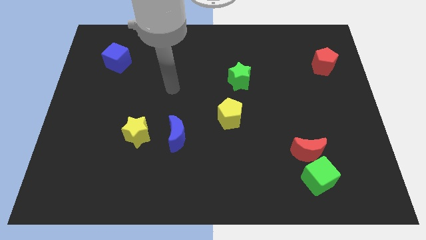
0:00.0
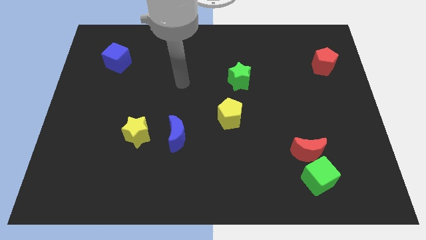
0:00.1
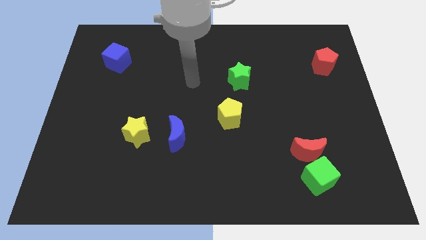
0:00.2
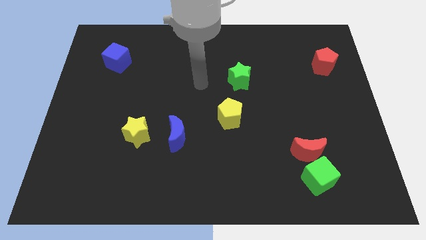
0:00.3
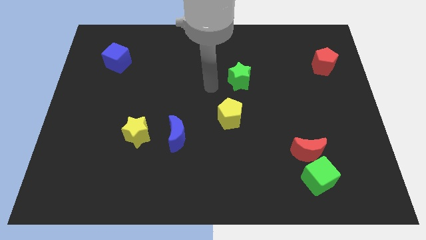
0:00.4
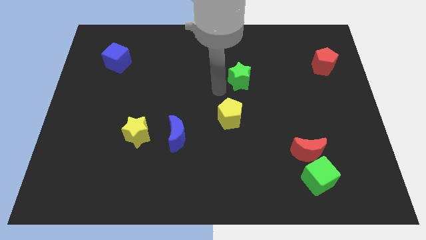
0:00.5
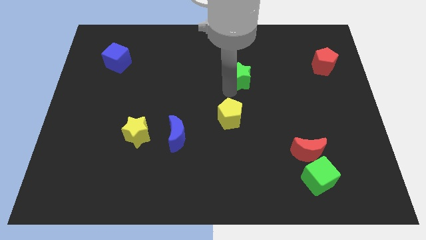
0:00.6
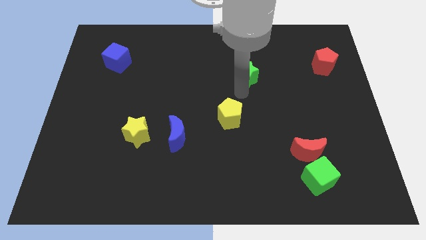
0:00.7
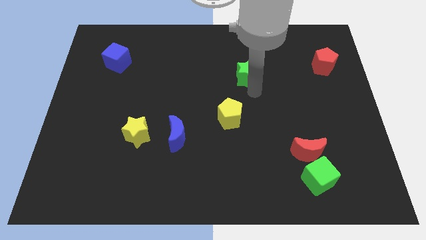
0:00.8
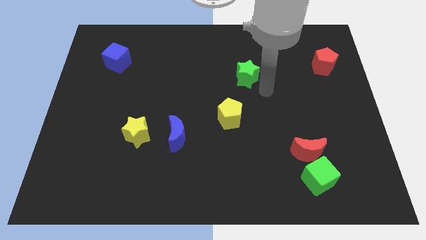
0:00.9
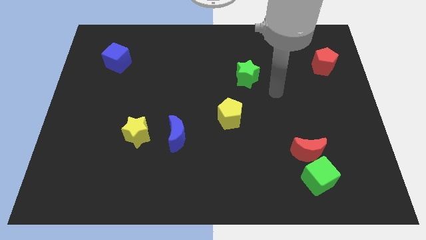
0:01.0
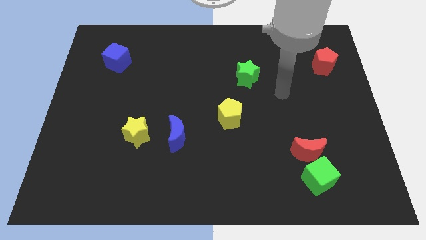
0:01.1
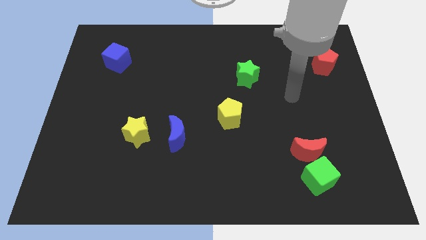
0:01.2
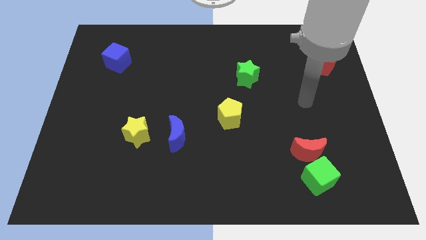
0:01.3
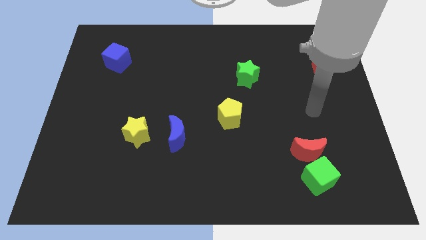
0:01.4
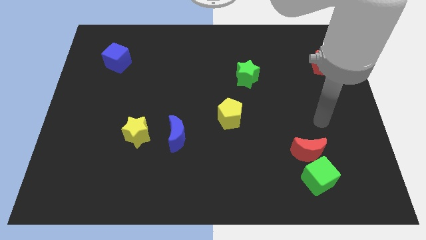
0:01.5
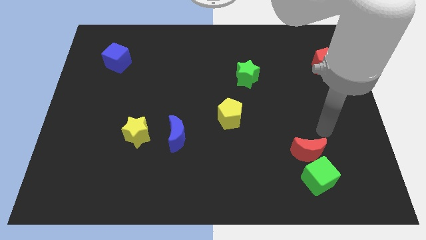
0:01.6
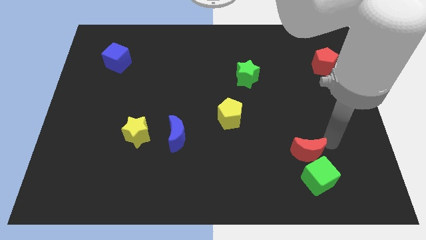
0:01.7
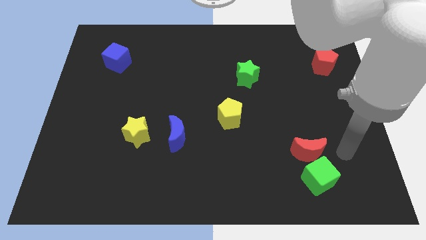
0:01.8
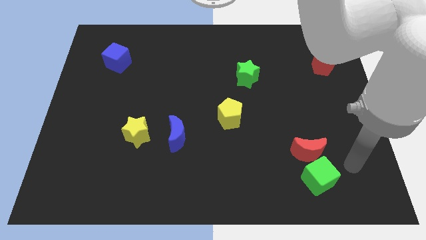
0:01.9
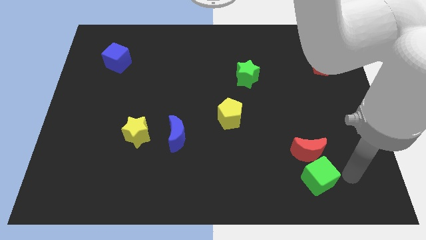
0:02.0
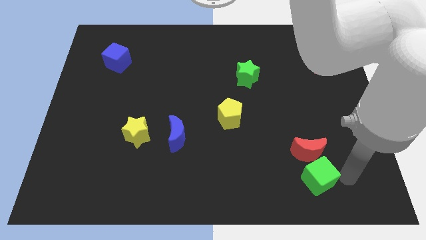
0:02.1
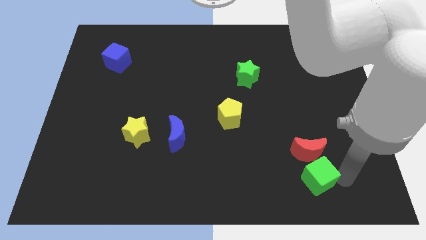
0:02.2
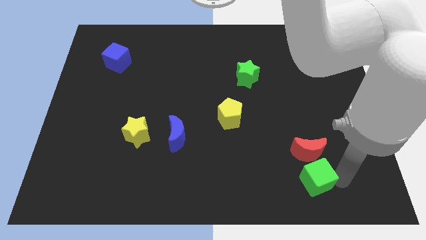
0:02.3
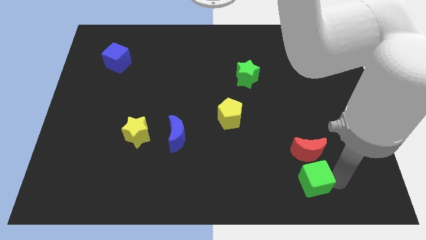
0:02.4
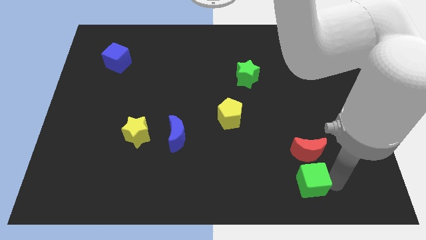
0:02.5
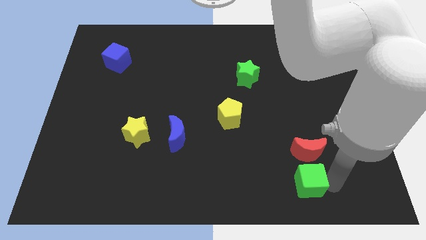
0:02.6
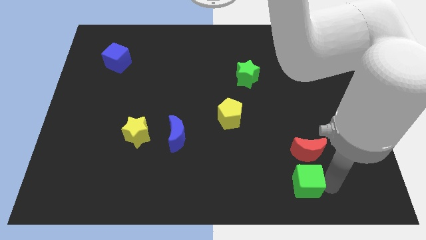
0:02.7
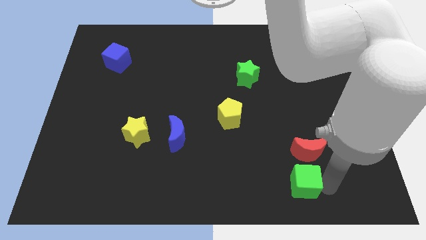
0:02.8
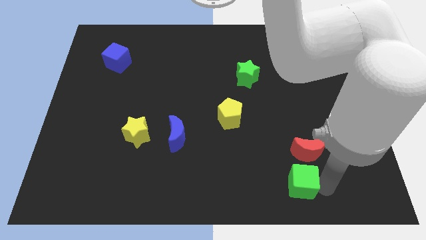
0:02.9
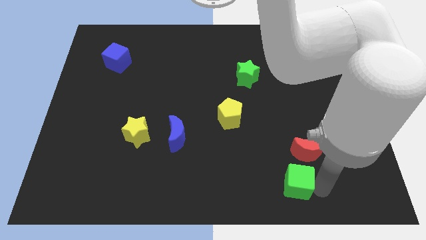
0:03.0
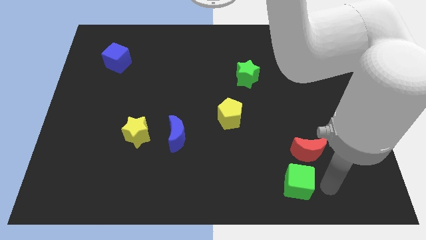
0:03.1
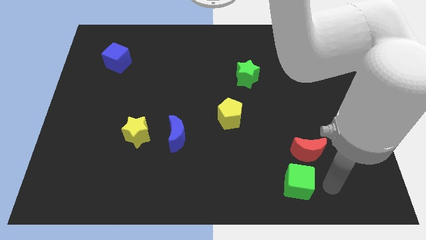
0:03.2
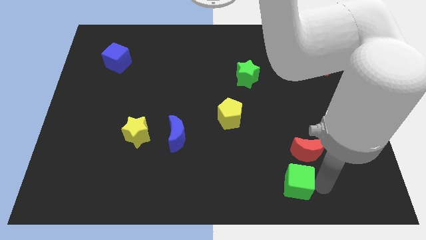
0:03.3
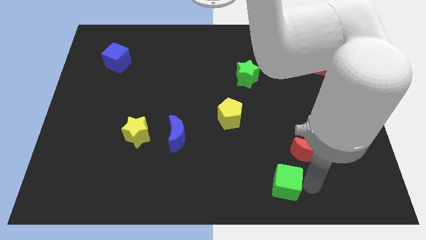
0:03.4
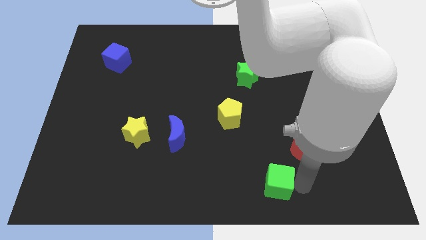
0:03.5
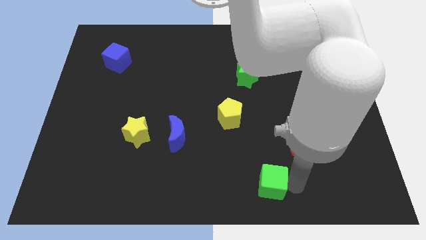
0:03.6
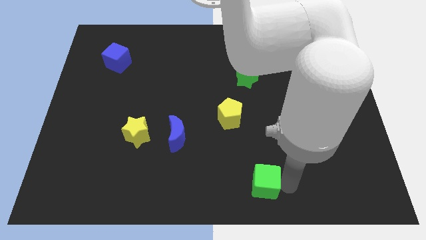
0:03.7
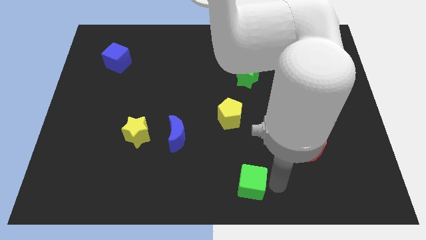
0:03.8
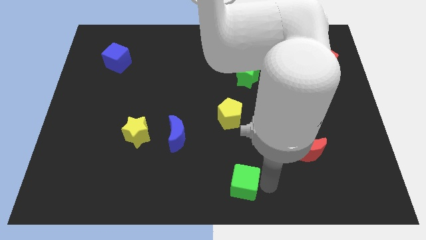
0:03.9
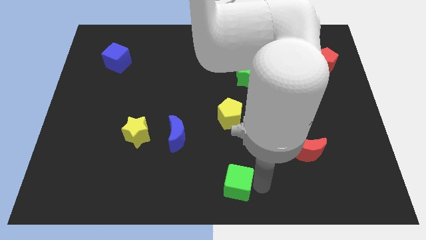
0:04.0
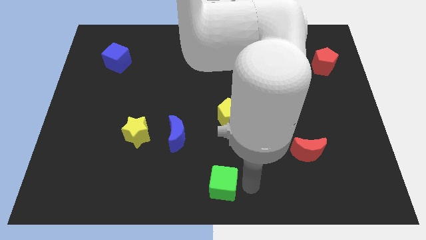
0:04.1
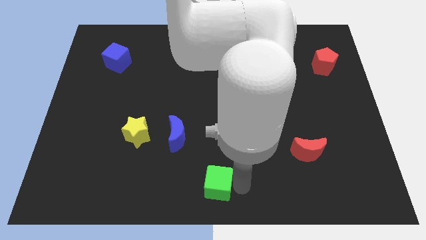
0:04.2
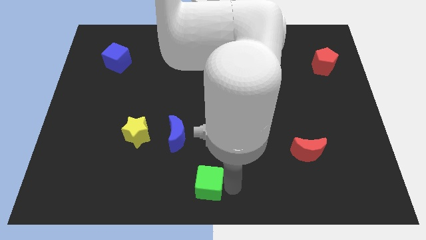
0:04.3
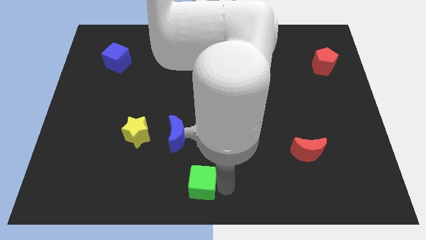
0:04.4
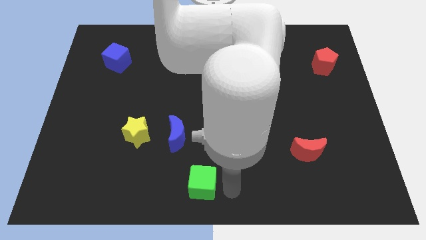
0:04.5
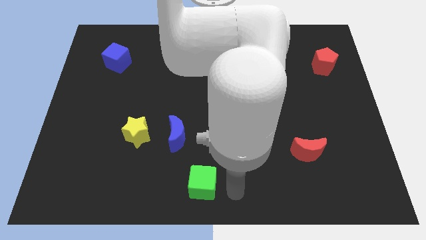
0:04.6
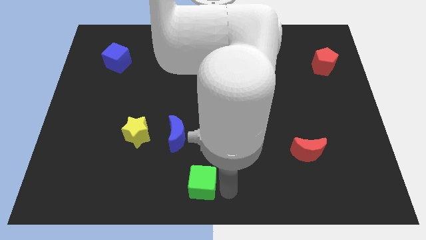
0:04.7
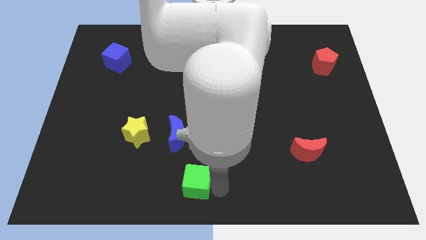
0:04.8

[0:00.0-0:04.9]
push the green cube to the bottom of the blue moon

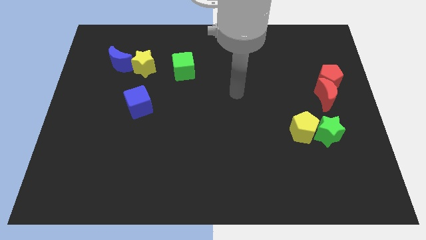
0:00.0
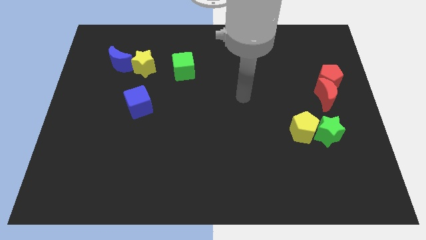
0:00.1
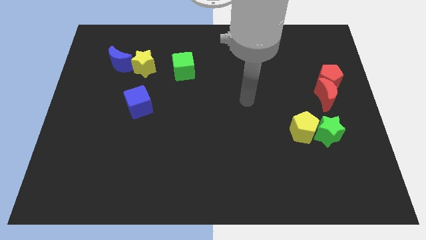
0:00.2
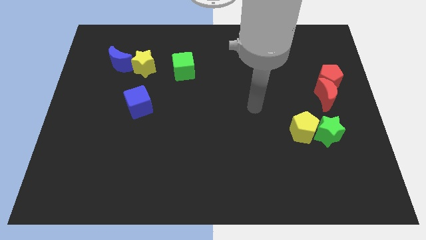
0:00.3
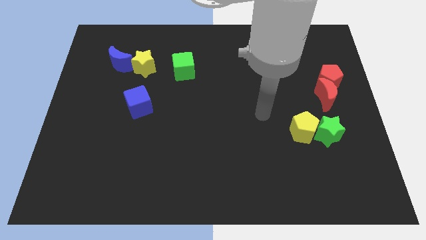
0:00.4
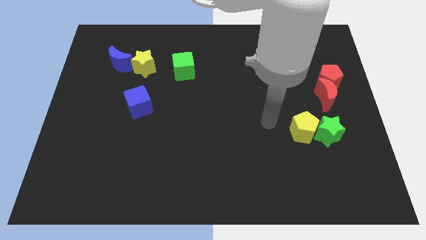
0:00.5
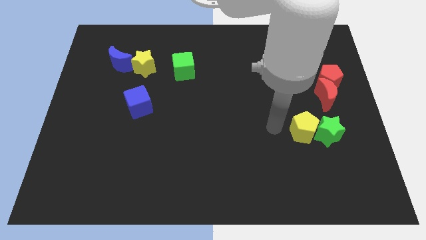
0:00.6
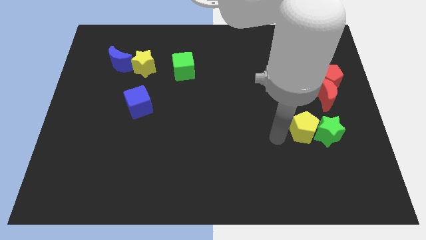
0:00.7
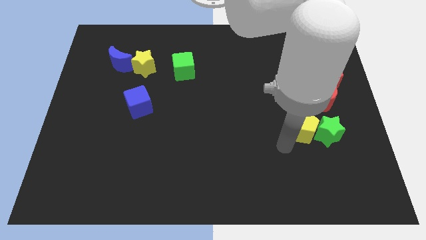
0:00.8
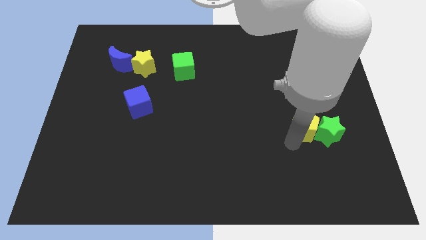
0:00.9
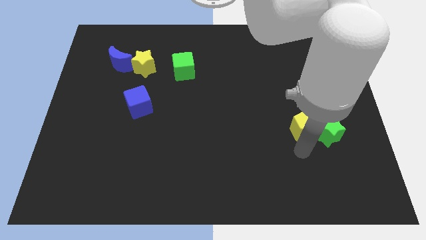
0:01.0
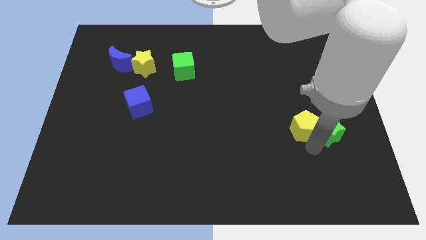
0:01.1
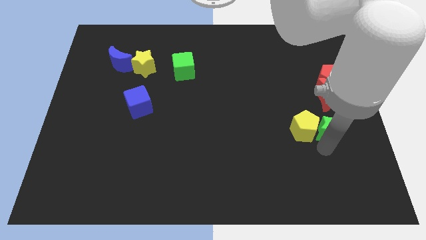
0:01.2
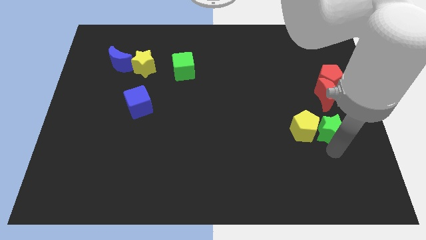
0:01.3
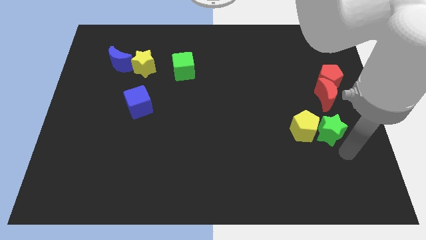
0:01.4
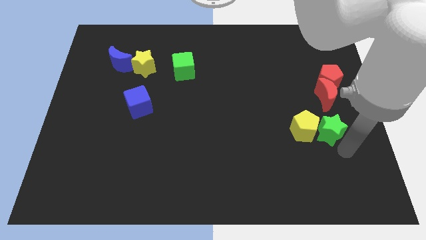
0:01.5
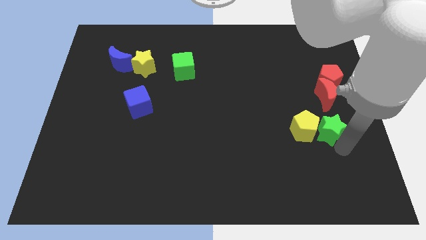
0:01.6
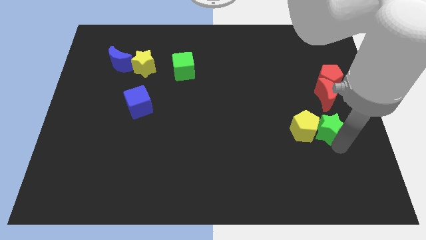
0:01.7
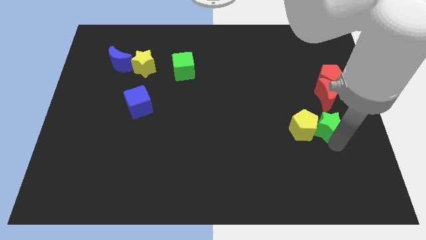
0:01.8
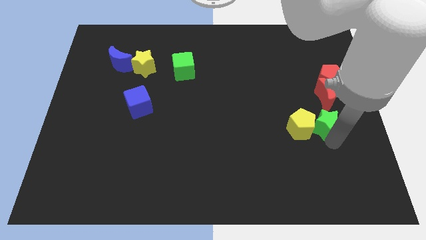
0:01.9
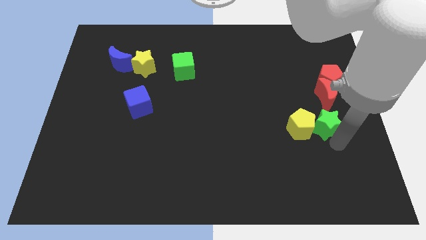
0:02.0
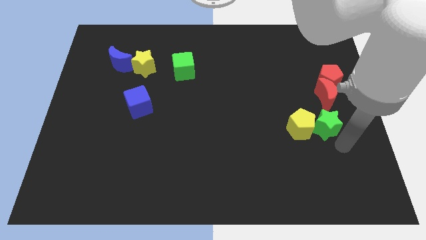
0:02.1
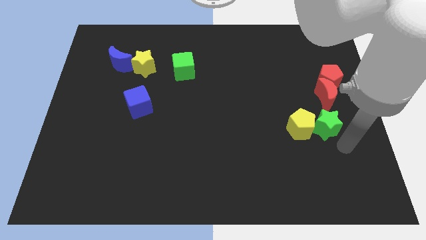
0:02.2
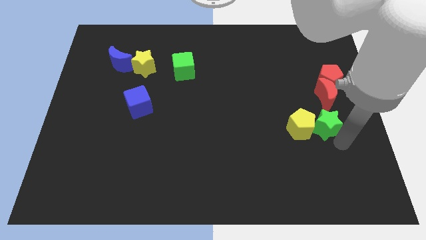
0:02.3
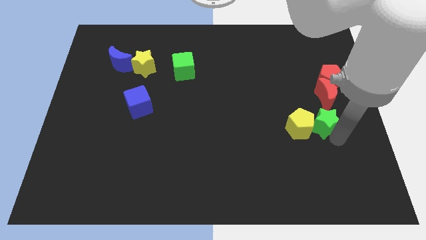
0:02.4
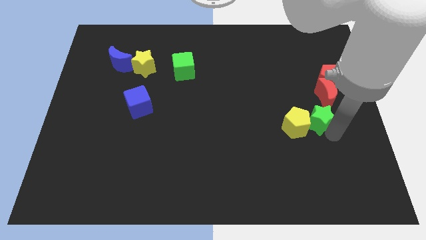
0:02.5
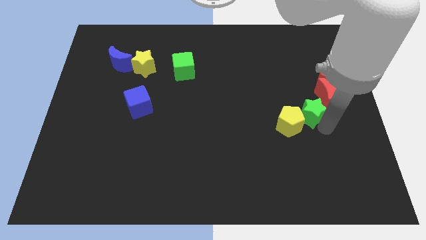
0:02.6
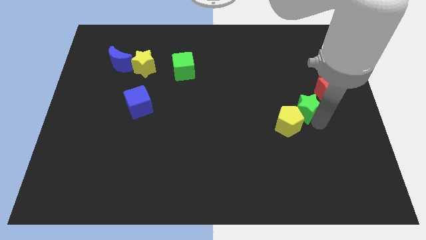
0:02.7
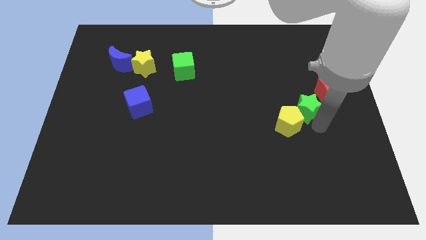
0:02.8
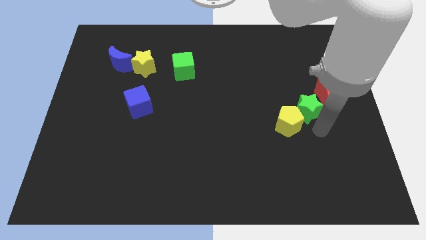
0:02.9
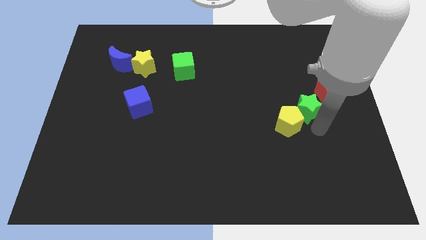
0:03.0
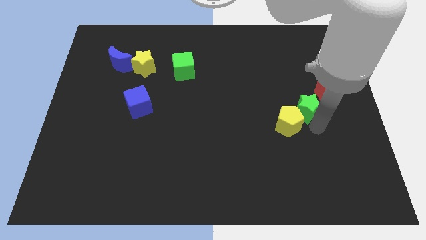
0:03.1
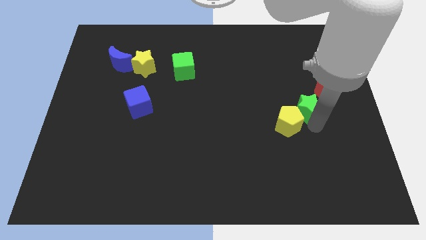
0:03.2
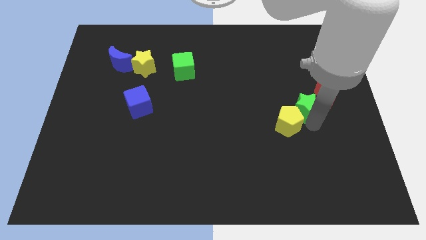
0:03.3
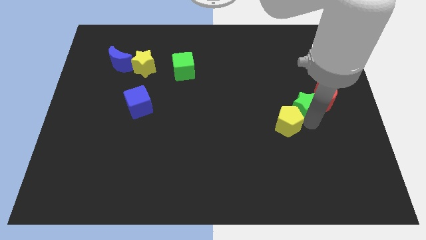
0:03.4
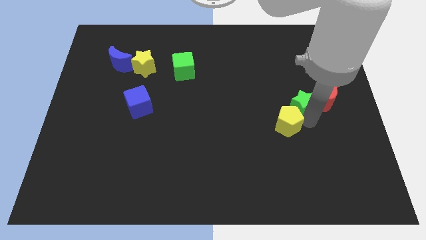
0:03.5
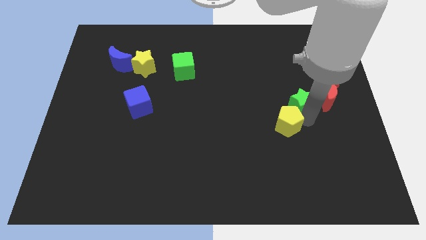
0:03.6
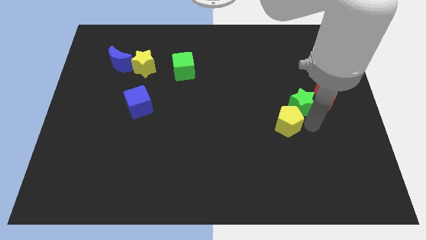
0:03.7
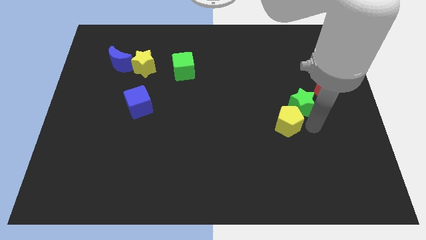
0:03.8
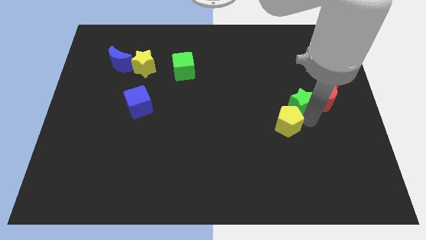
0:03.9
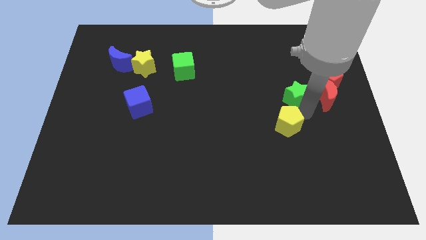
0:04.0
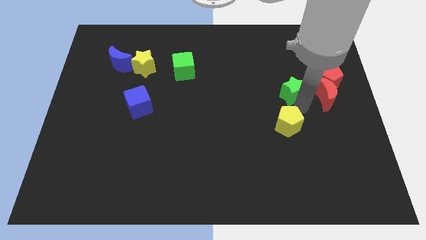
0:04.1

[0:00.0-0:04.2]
push the green star to the left side of the red pentagon
